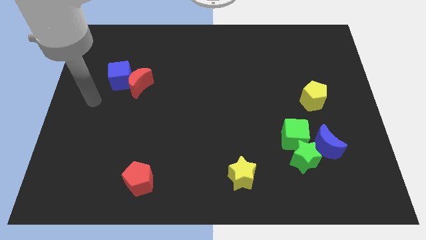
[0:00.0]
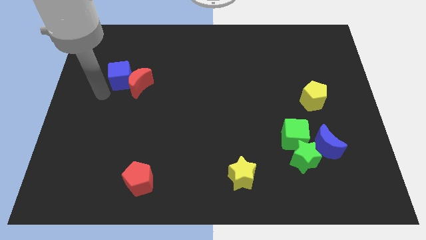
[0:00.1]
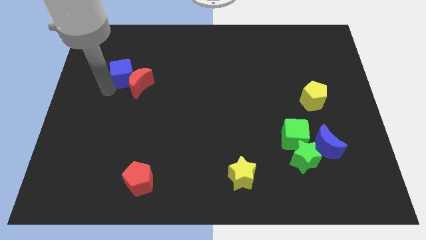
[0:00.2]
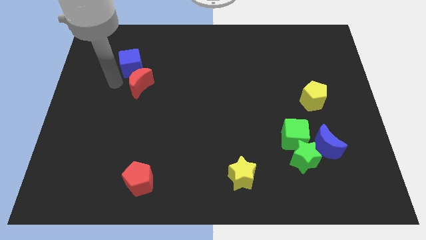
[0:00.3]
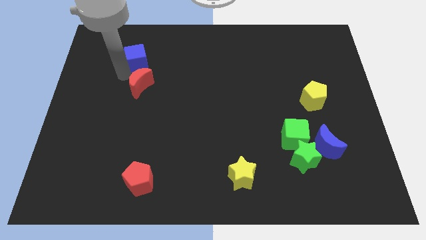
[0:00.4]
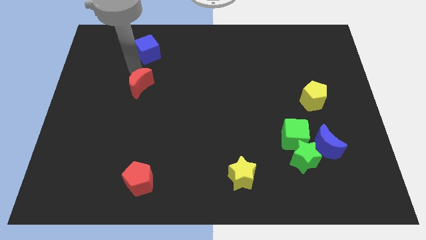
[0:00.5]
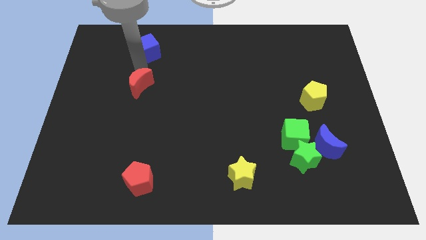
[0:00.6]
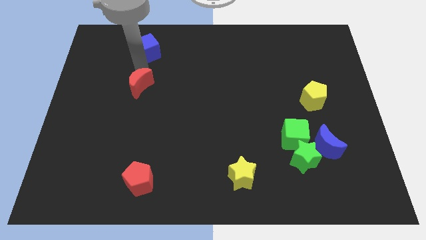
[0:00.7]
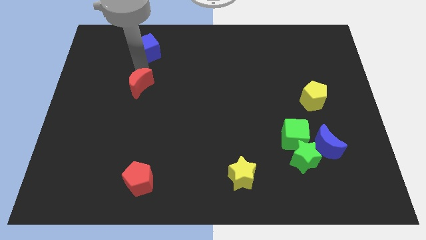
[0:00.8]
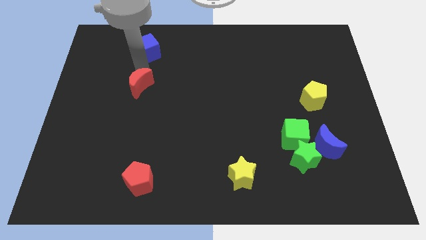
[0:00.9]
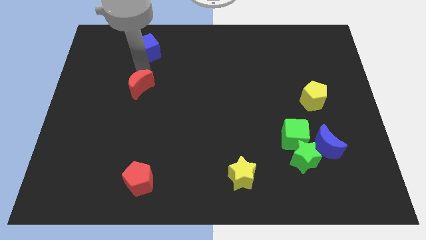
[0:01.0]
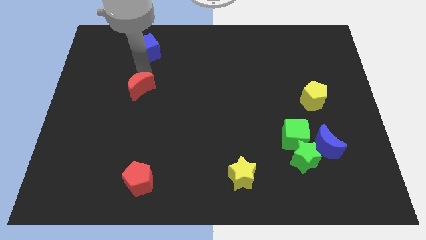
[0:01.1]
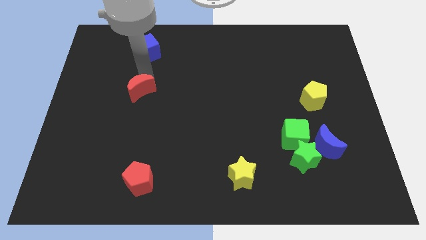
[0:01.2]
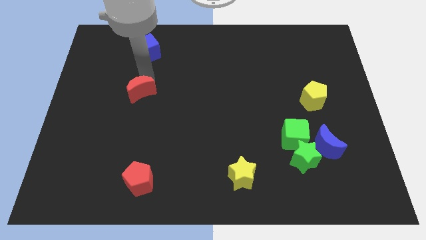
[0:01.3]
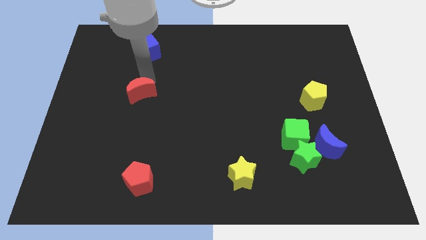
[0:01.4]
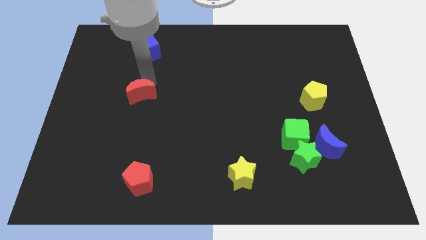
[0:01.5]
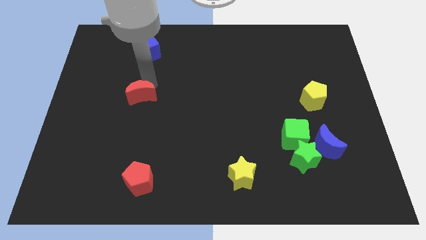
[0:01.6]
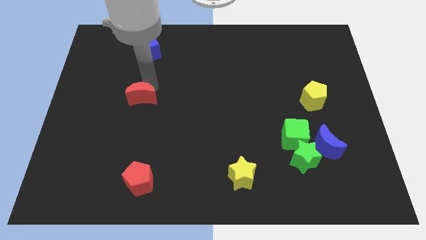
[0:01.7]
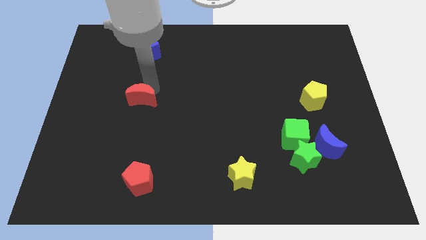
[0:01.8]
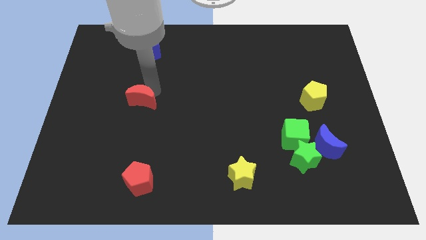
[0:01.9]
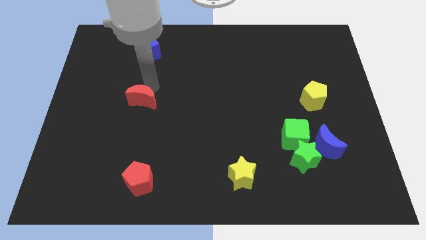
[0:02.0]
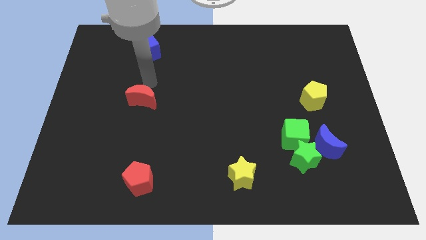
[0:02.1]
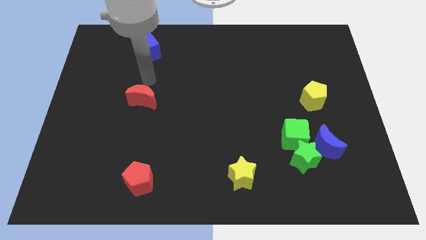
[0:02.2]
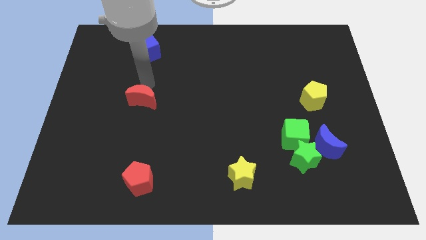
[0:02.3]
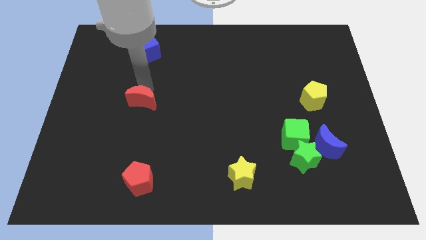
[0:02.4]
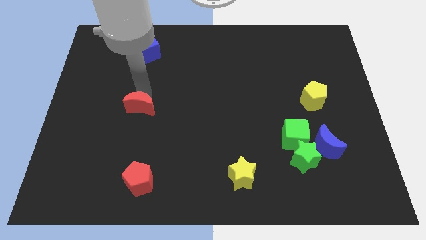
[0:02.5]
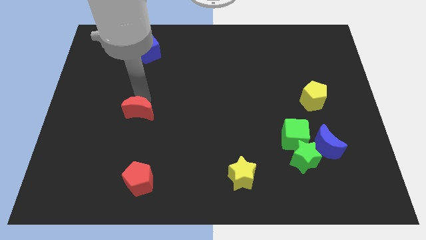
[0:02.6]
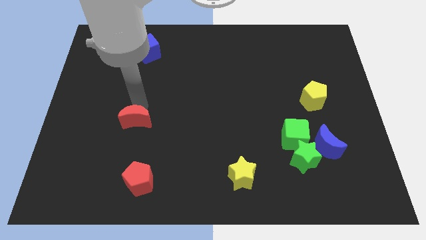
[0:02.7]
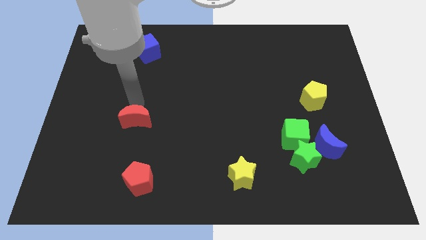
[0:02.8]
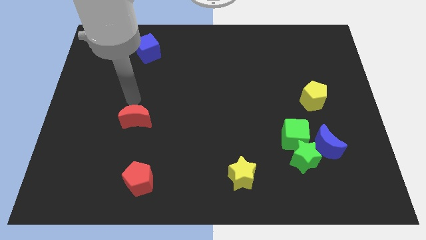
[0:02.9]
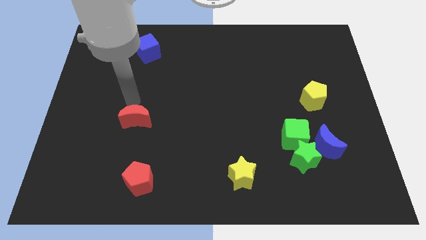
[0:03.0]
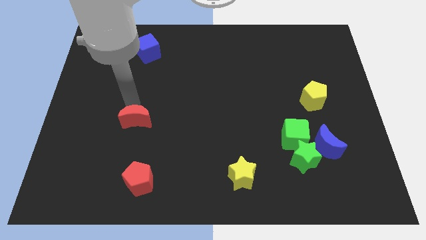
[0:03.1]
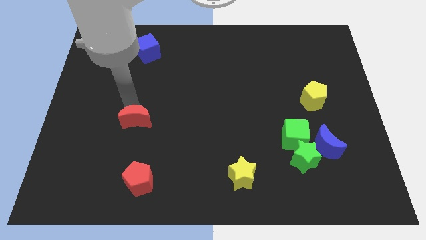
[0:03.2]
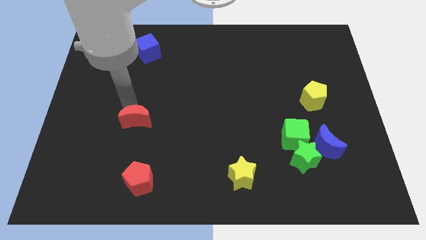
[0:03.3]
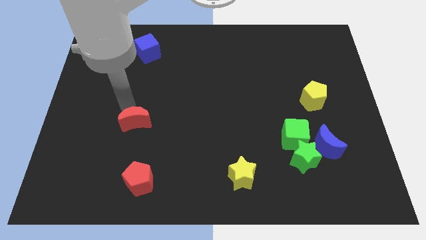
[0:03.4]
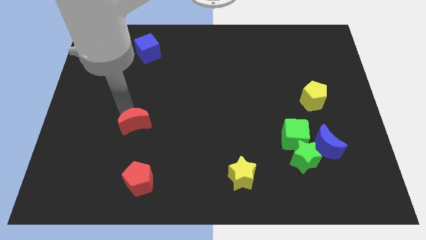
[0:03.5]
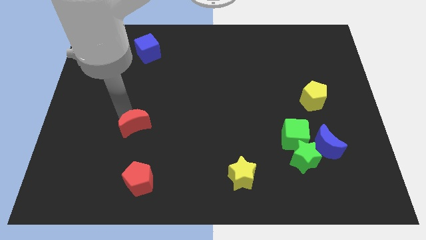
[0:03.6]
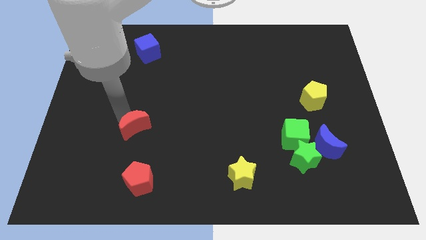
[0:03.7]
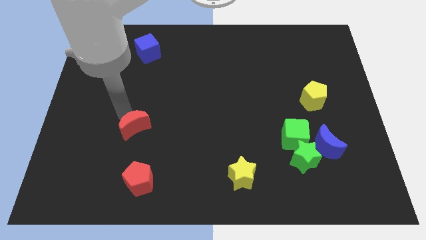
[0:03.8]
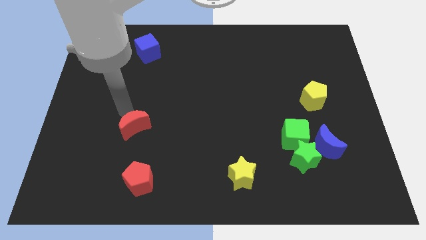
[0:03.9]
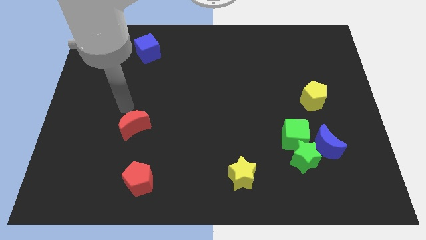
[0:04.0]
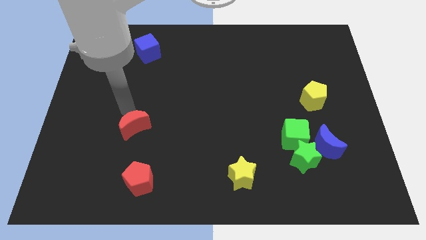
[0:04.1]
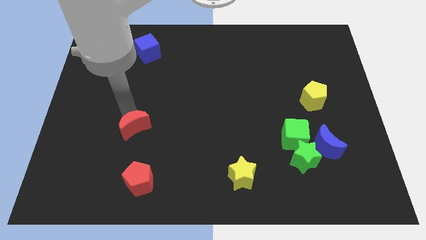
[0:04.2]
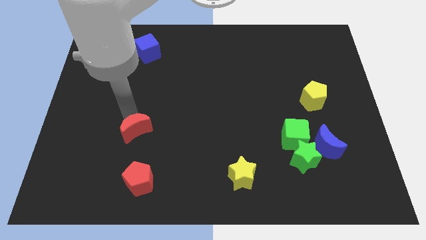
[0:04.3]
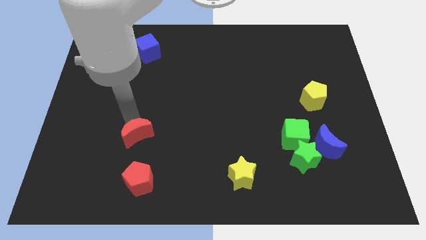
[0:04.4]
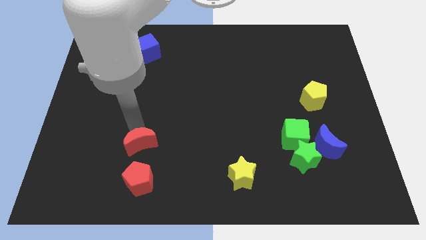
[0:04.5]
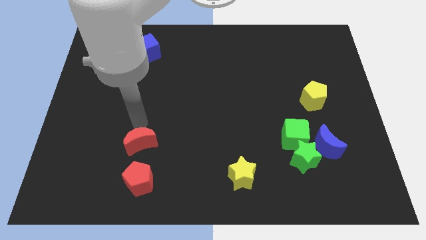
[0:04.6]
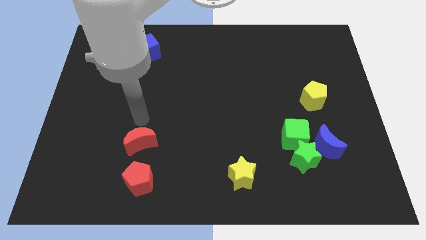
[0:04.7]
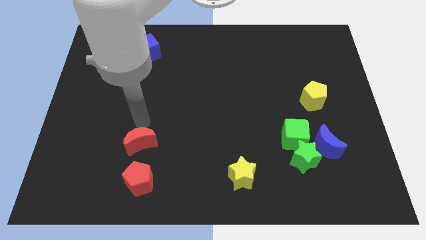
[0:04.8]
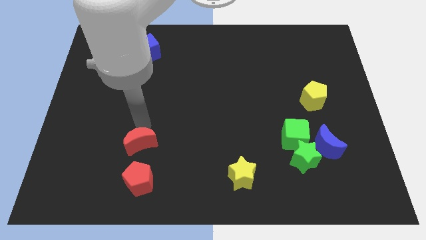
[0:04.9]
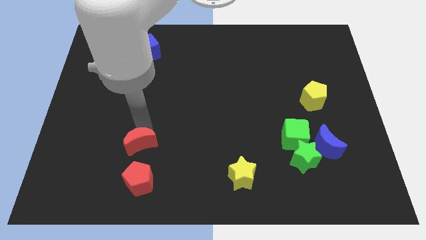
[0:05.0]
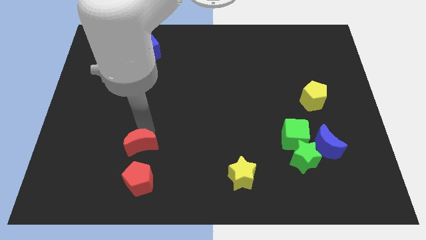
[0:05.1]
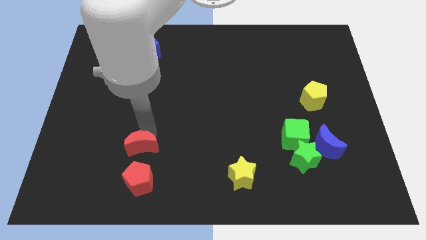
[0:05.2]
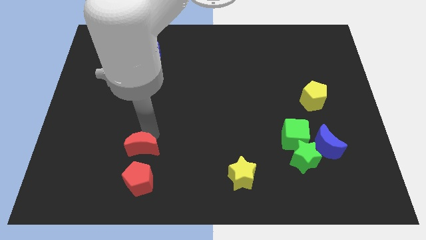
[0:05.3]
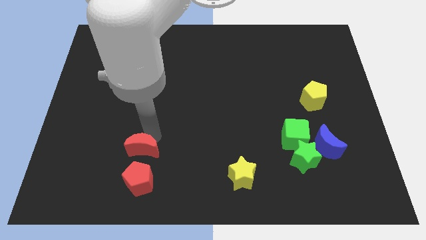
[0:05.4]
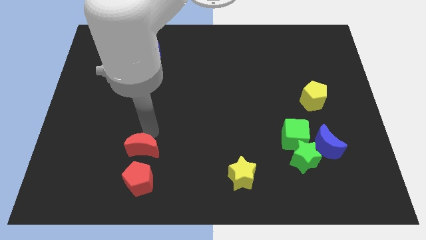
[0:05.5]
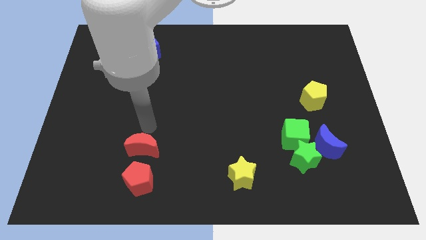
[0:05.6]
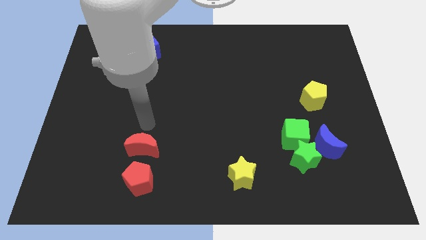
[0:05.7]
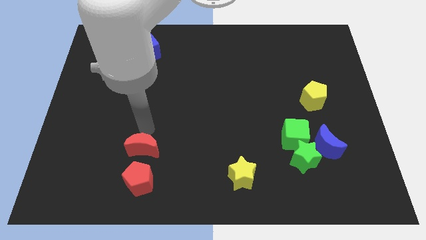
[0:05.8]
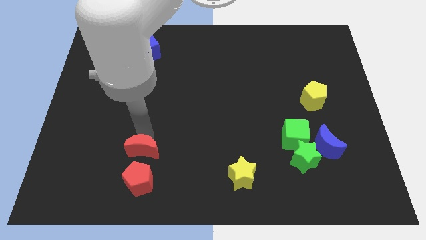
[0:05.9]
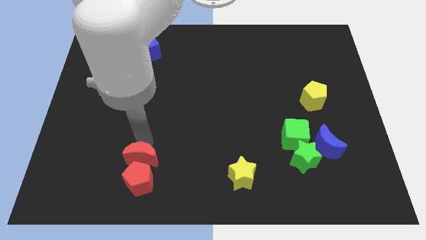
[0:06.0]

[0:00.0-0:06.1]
put the red moon close to the red pentagon
